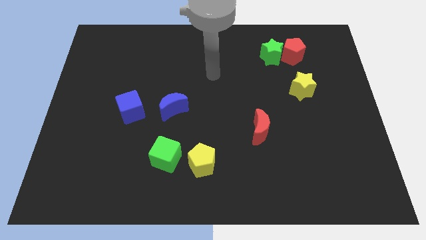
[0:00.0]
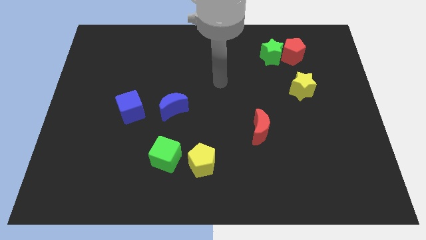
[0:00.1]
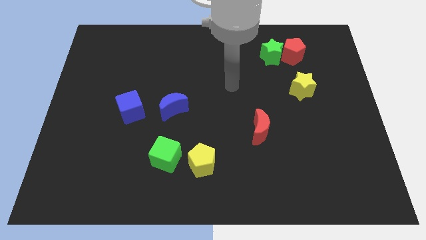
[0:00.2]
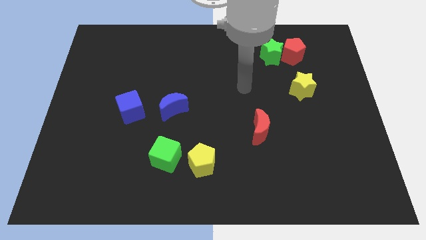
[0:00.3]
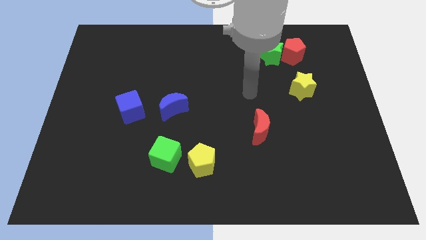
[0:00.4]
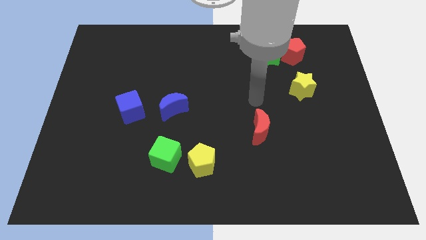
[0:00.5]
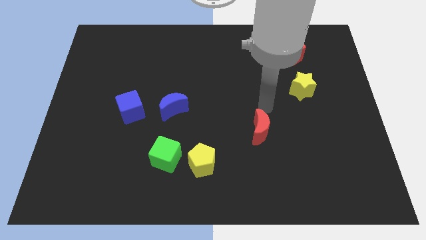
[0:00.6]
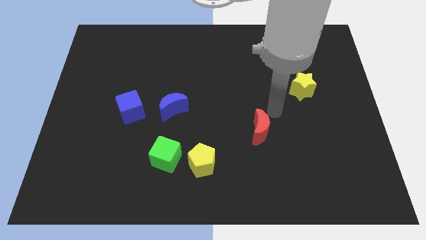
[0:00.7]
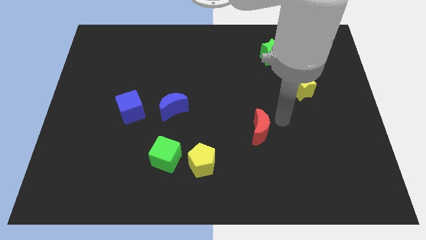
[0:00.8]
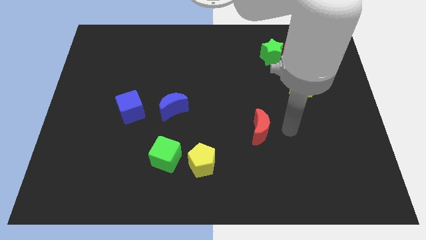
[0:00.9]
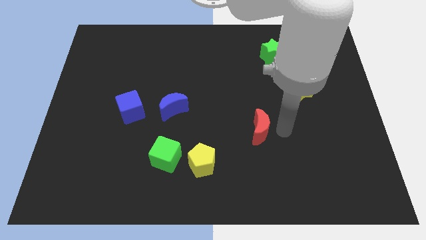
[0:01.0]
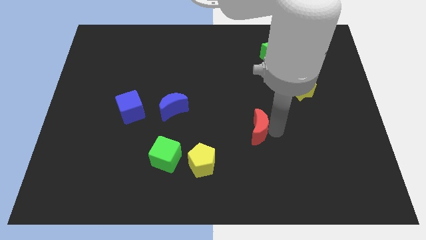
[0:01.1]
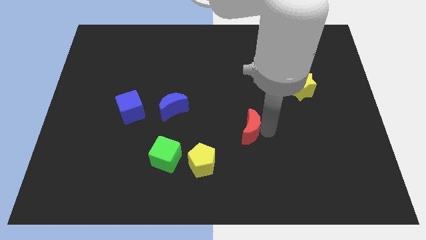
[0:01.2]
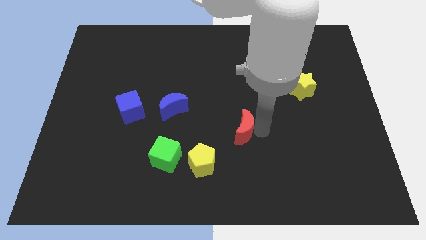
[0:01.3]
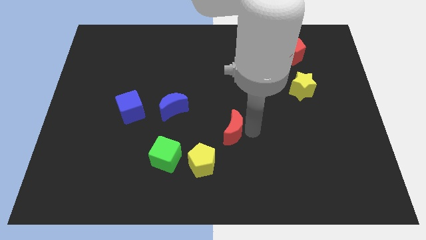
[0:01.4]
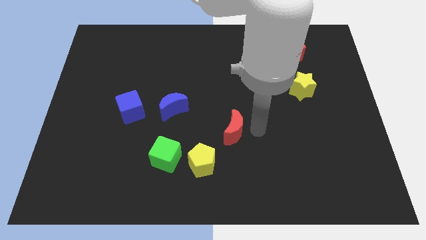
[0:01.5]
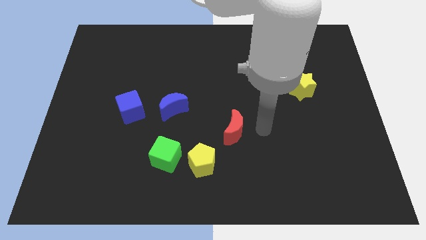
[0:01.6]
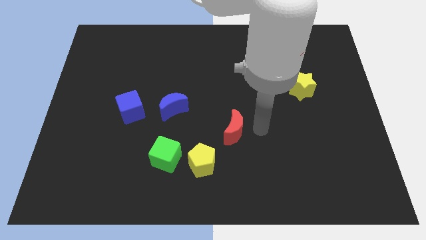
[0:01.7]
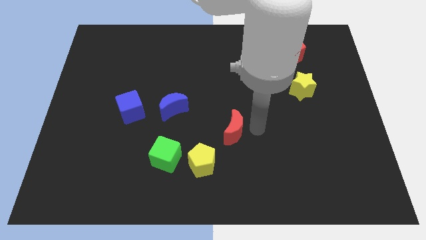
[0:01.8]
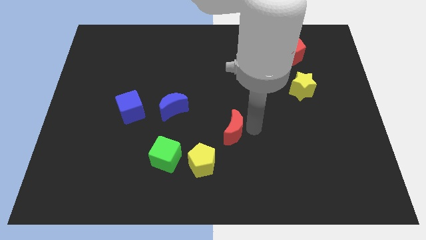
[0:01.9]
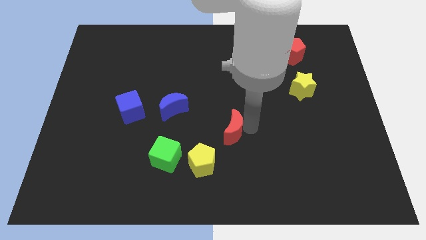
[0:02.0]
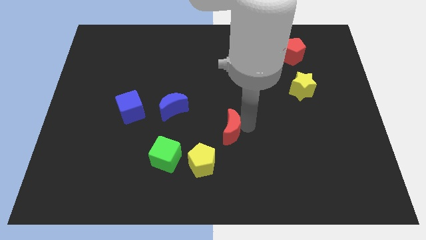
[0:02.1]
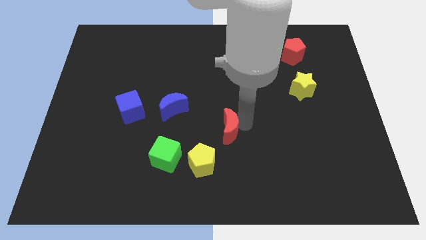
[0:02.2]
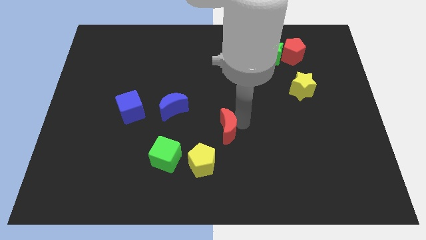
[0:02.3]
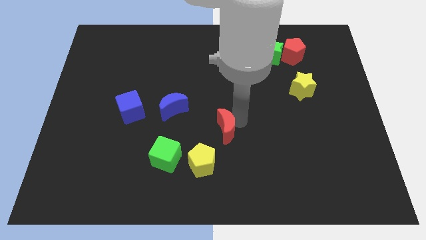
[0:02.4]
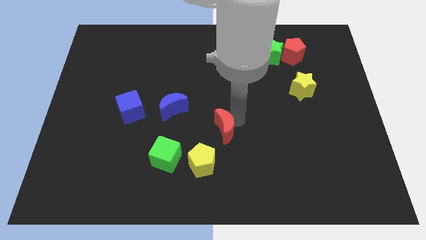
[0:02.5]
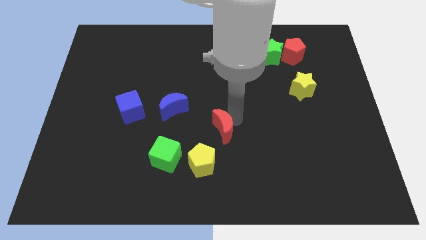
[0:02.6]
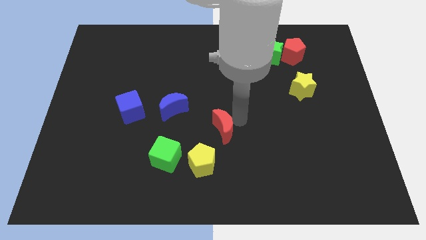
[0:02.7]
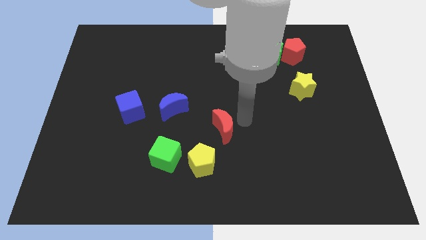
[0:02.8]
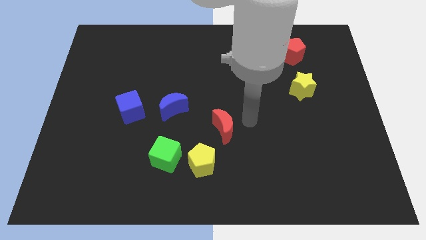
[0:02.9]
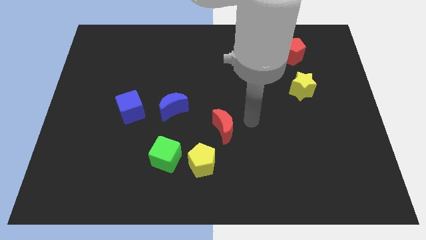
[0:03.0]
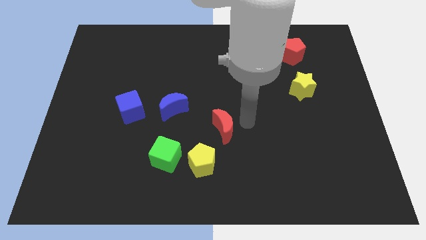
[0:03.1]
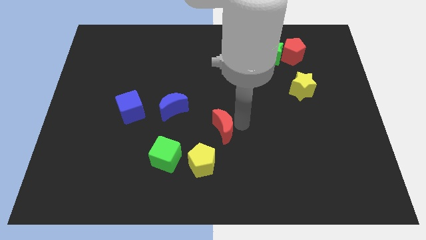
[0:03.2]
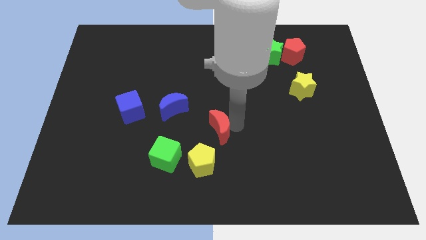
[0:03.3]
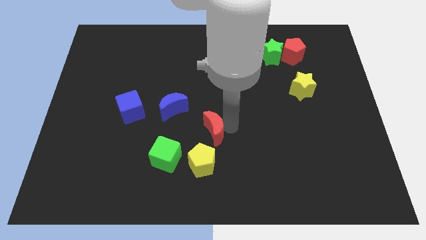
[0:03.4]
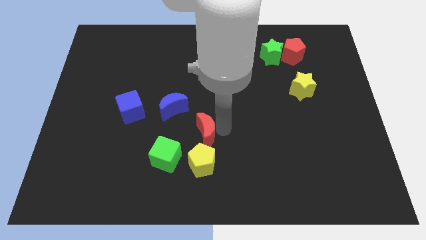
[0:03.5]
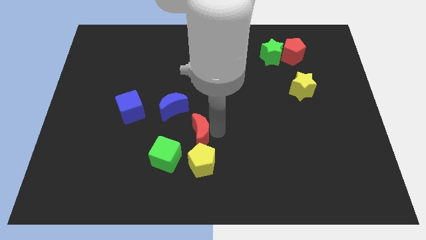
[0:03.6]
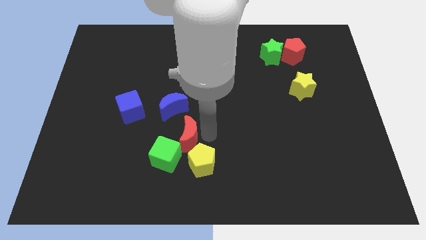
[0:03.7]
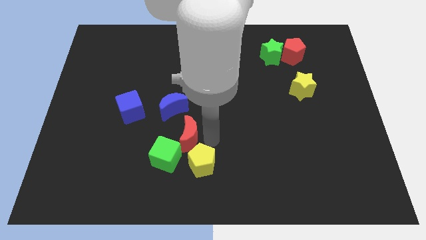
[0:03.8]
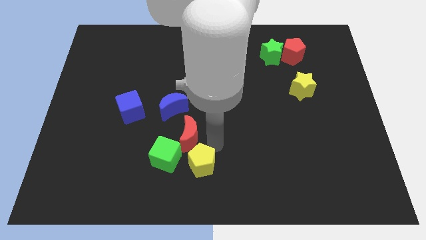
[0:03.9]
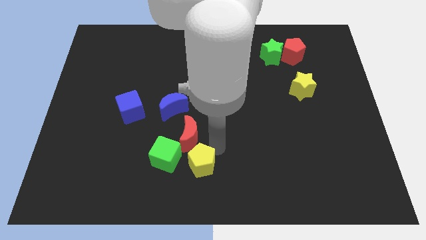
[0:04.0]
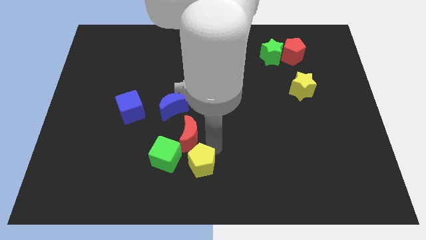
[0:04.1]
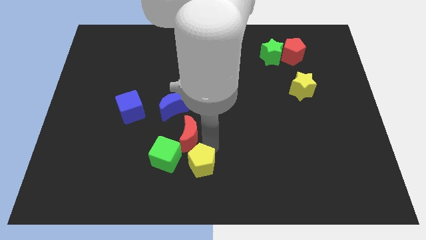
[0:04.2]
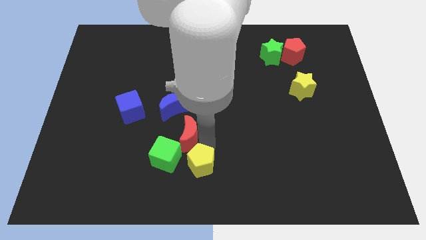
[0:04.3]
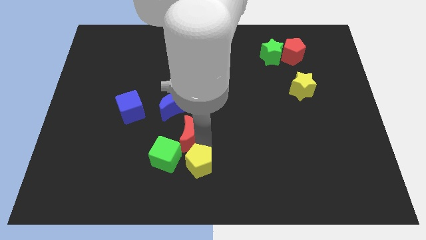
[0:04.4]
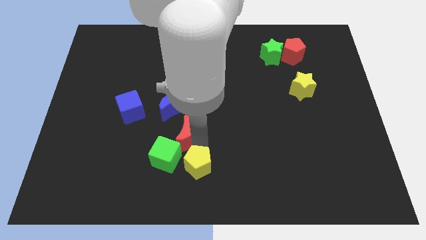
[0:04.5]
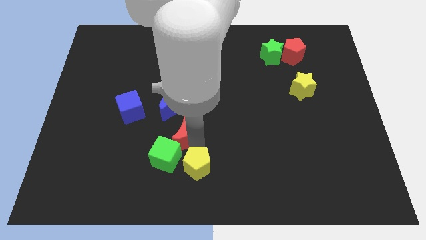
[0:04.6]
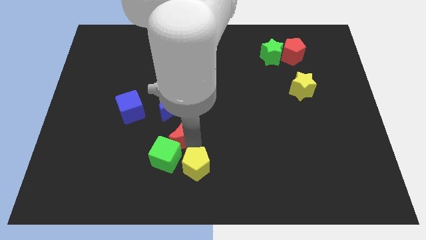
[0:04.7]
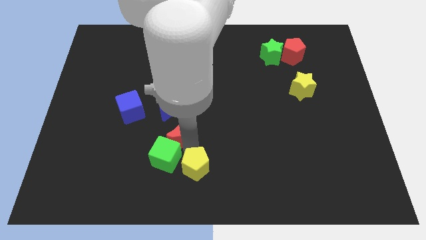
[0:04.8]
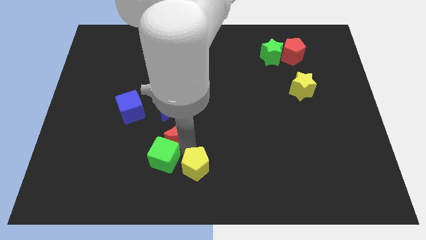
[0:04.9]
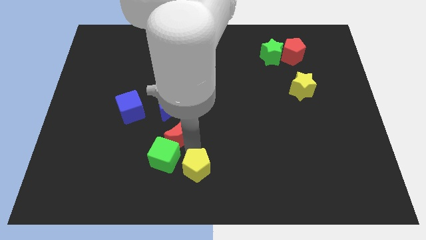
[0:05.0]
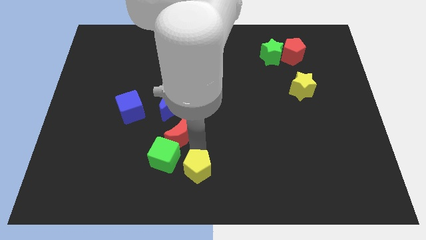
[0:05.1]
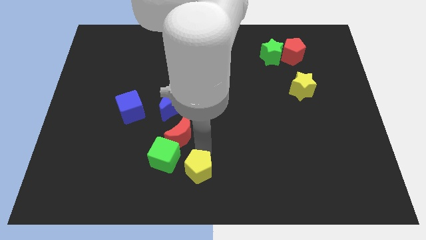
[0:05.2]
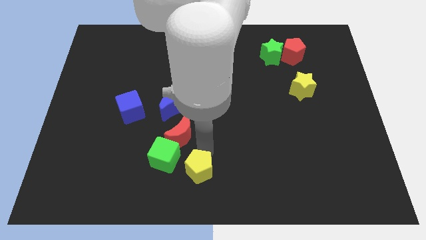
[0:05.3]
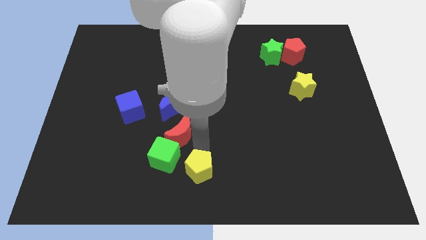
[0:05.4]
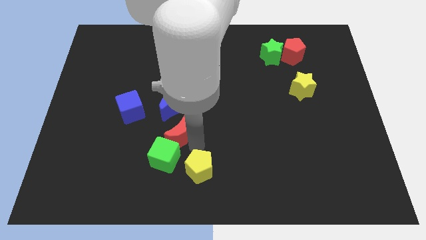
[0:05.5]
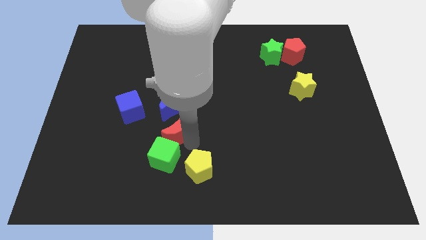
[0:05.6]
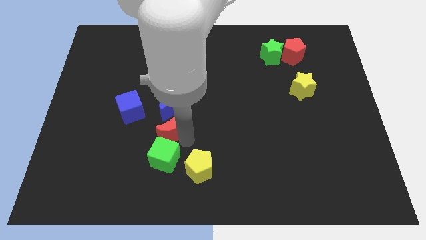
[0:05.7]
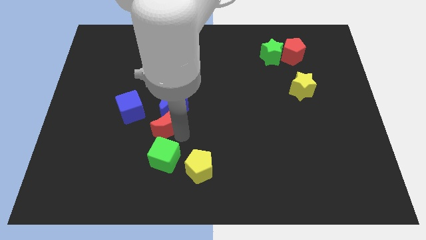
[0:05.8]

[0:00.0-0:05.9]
push the red moon left

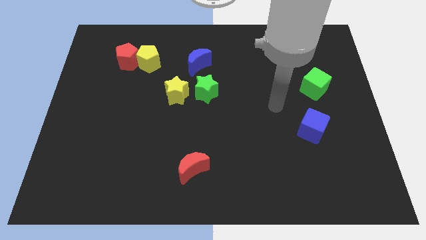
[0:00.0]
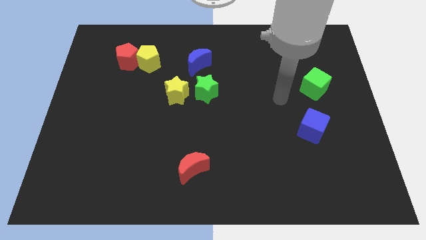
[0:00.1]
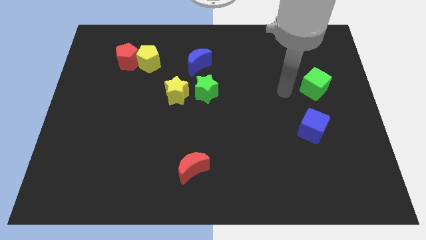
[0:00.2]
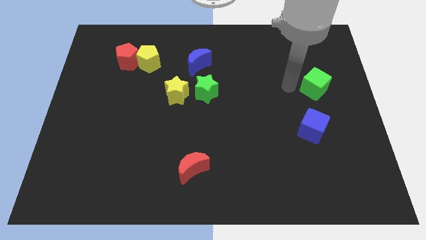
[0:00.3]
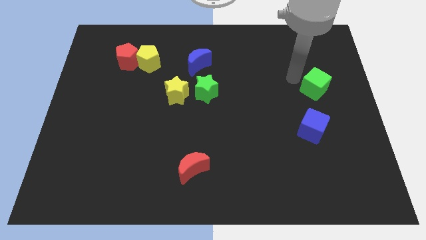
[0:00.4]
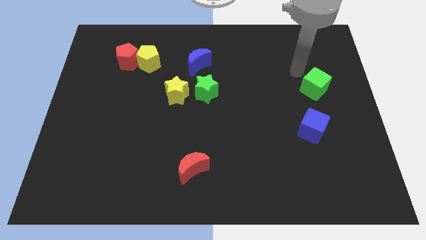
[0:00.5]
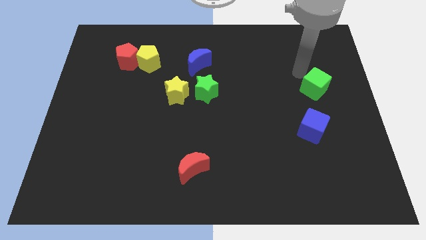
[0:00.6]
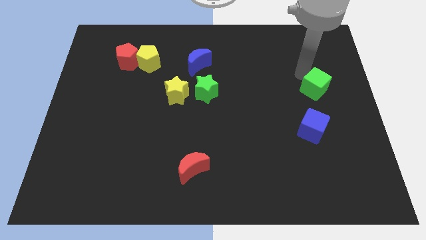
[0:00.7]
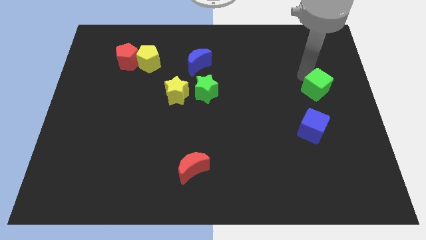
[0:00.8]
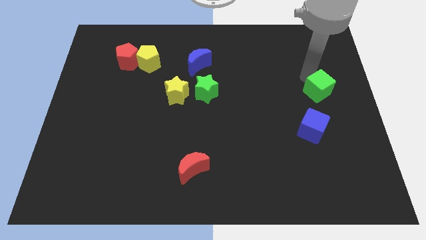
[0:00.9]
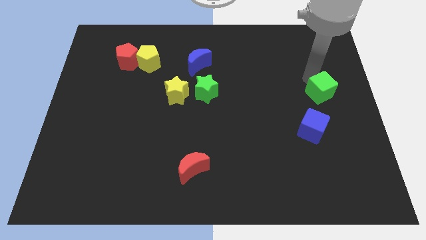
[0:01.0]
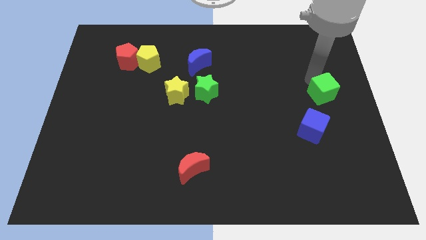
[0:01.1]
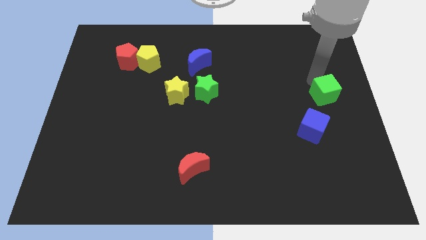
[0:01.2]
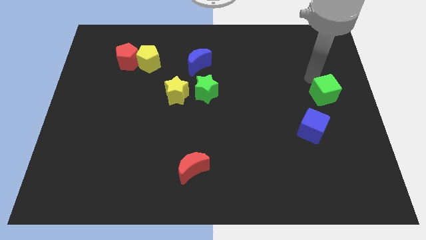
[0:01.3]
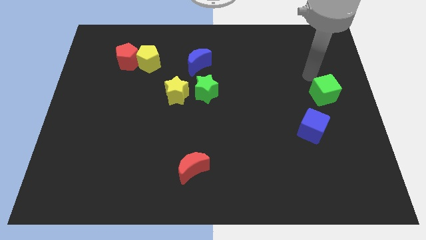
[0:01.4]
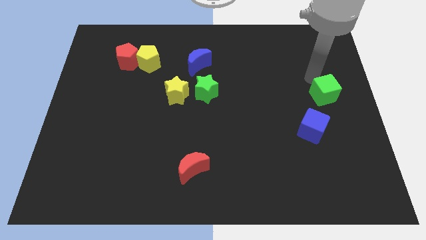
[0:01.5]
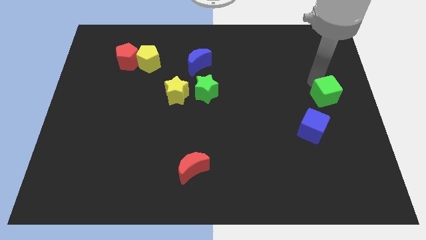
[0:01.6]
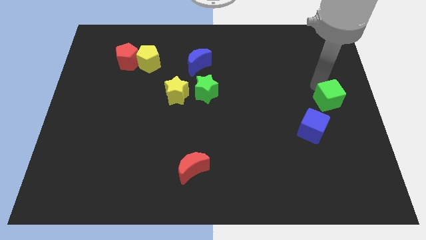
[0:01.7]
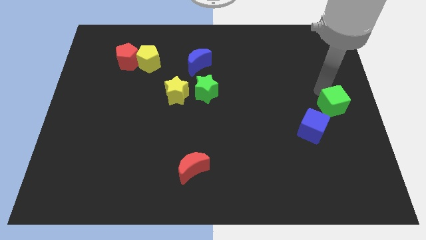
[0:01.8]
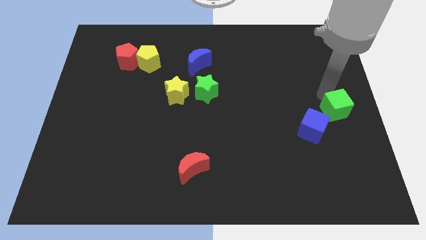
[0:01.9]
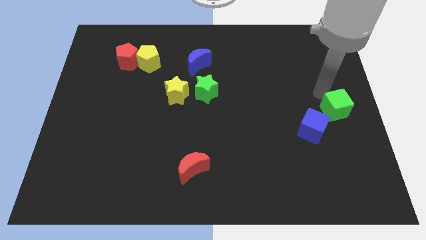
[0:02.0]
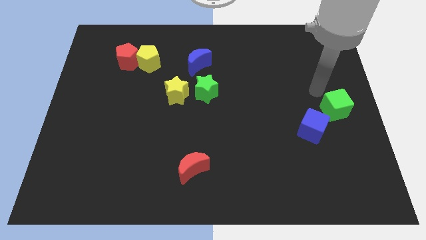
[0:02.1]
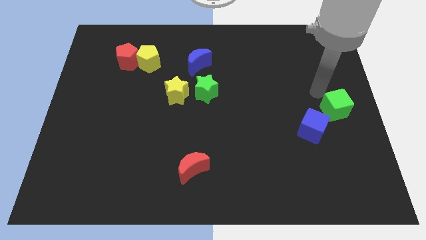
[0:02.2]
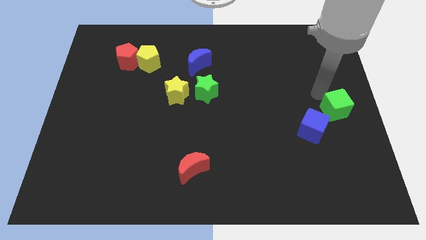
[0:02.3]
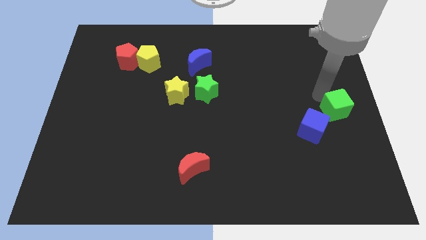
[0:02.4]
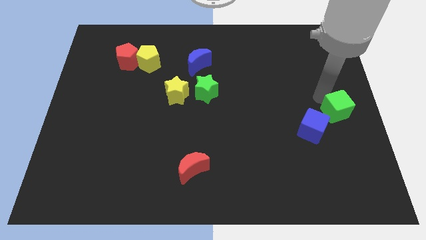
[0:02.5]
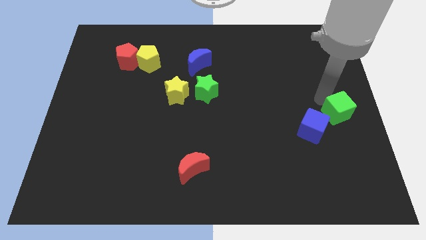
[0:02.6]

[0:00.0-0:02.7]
move the green cube downwards a bit
